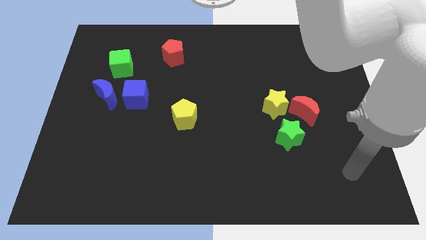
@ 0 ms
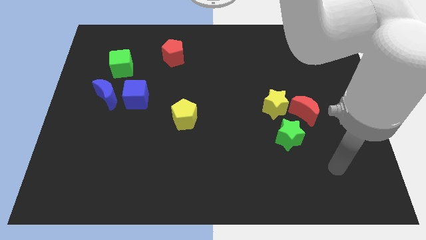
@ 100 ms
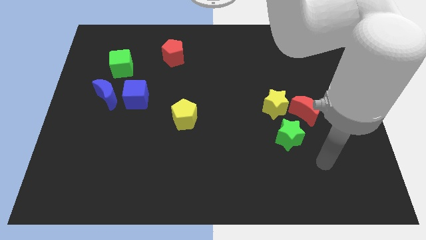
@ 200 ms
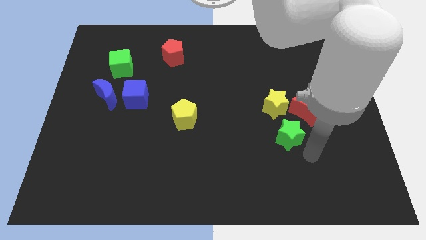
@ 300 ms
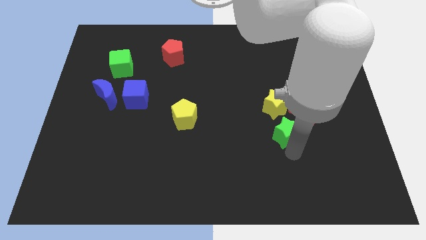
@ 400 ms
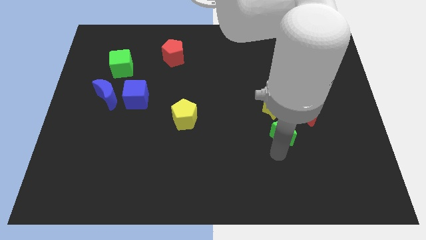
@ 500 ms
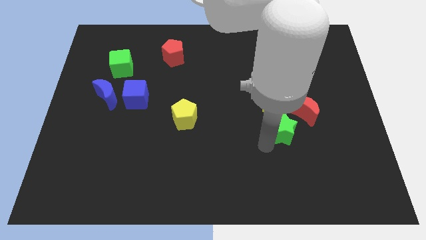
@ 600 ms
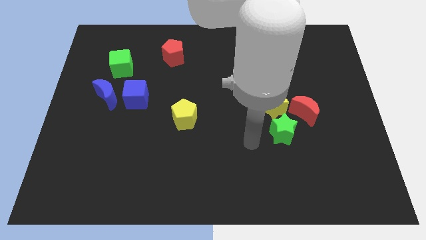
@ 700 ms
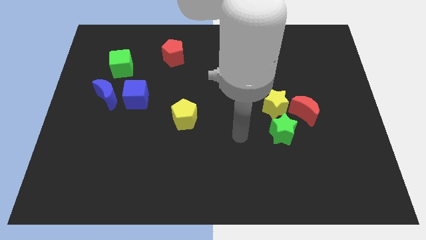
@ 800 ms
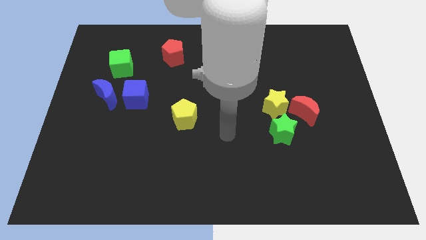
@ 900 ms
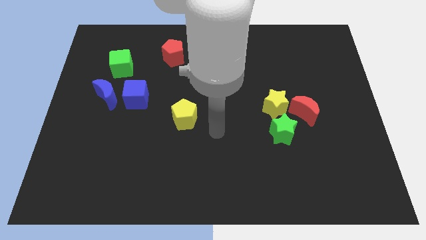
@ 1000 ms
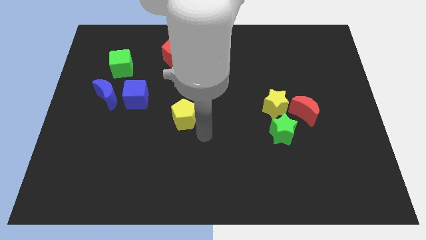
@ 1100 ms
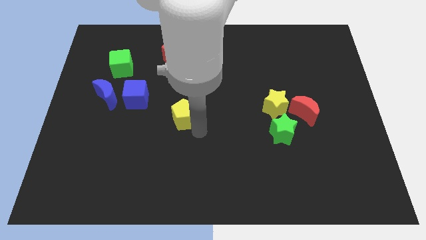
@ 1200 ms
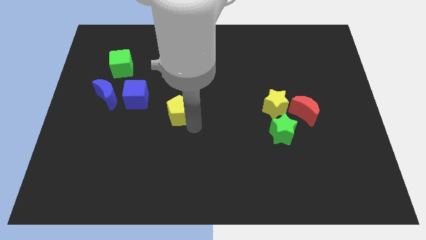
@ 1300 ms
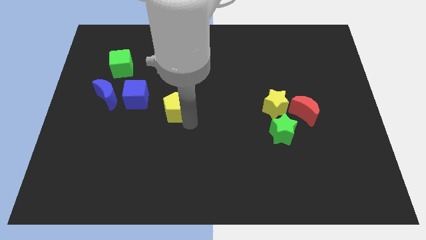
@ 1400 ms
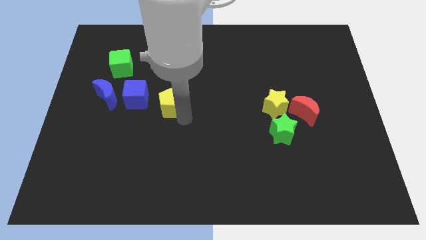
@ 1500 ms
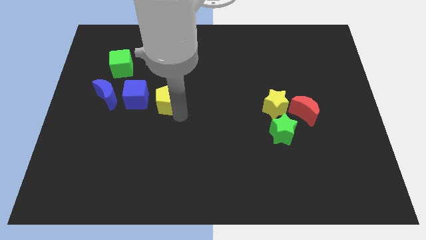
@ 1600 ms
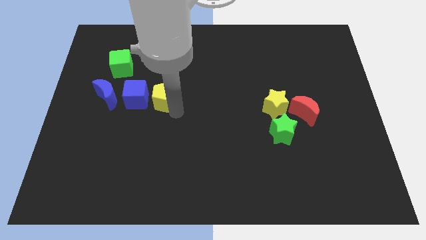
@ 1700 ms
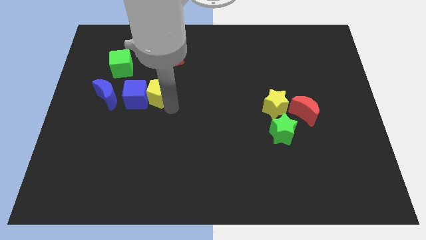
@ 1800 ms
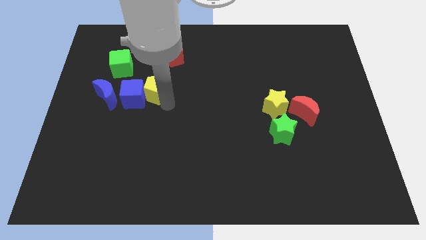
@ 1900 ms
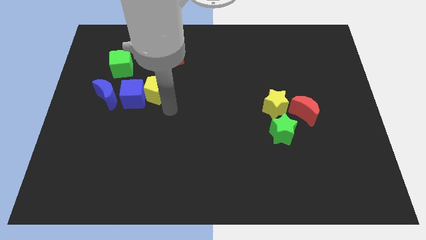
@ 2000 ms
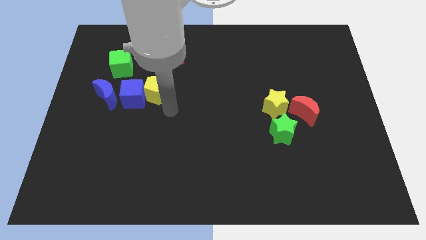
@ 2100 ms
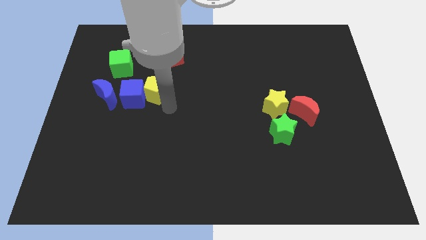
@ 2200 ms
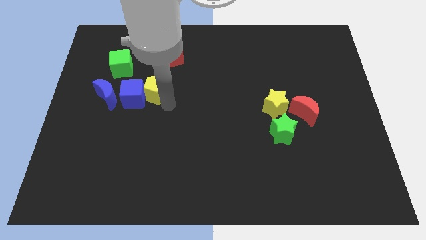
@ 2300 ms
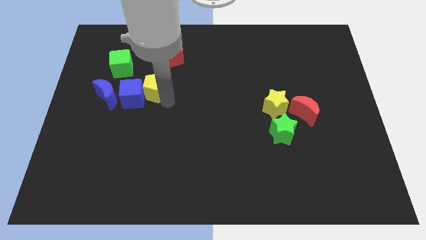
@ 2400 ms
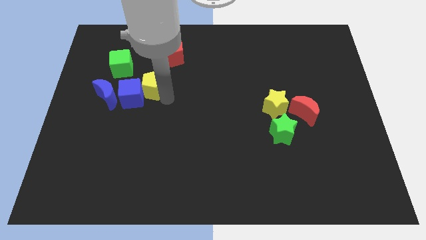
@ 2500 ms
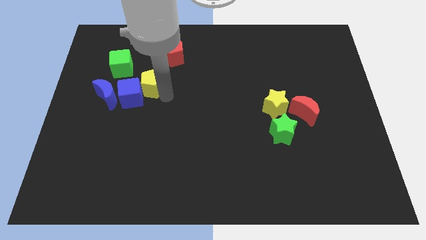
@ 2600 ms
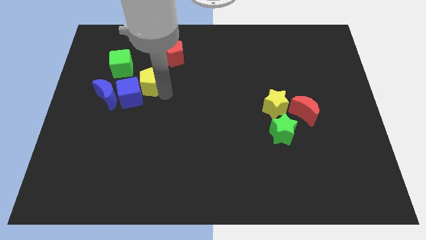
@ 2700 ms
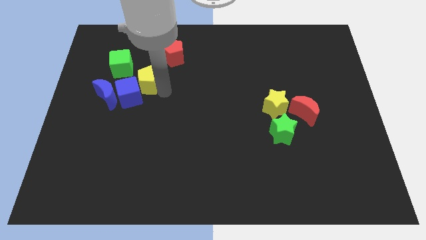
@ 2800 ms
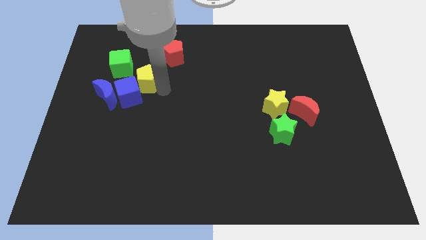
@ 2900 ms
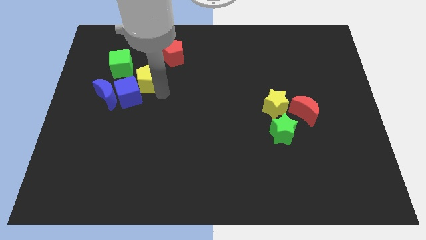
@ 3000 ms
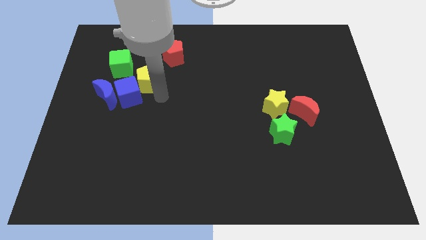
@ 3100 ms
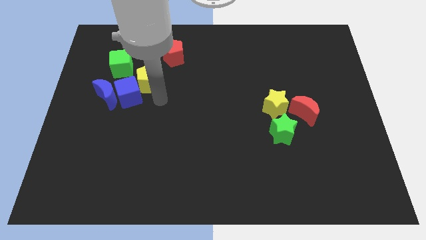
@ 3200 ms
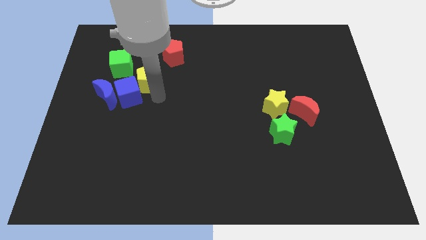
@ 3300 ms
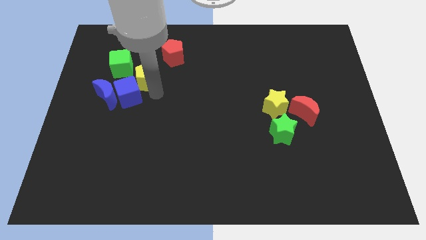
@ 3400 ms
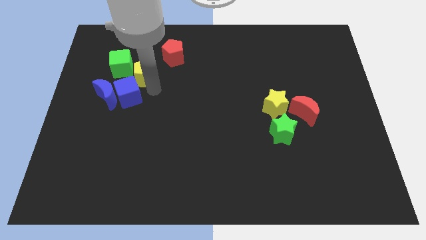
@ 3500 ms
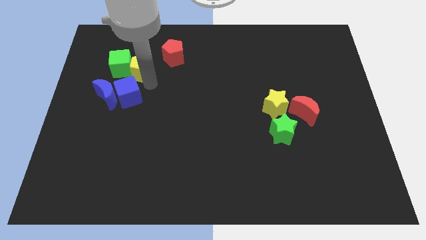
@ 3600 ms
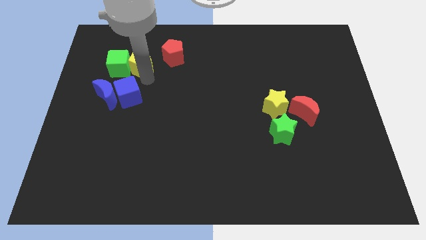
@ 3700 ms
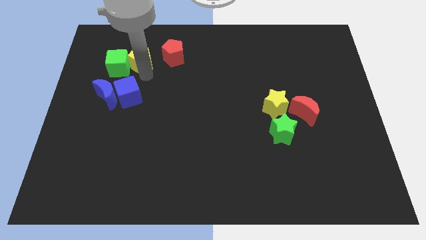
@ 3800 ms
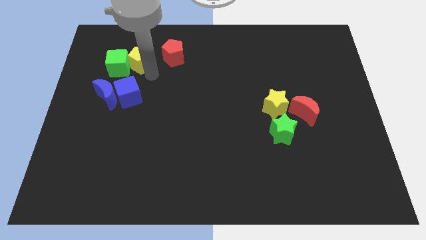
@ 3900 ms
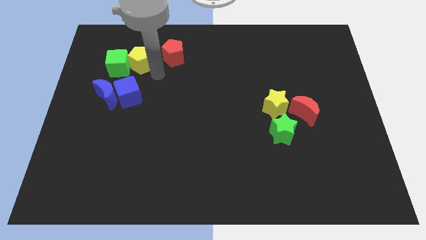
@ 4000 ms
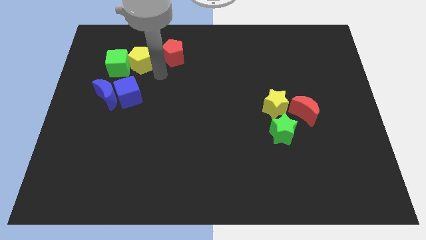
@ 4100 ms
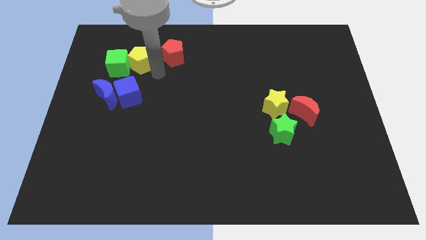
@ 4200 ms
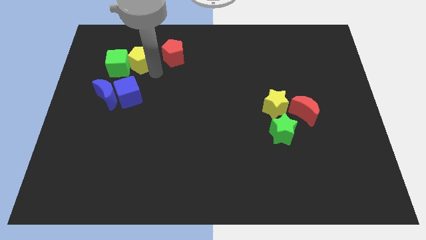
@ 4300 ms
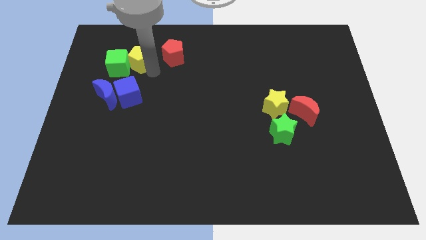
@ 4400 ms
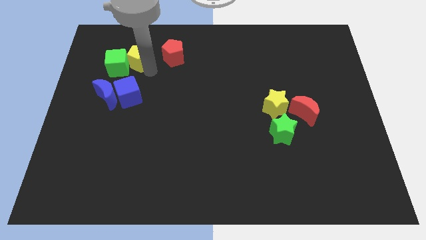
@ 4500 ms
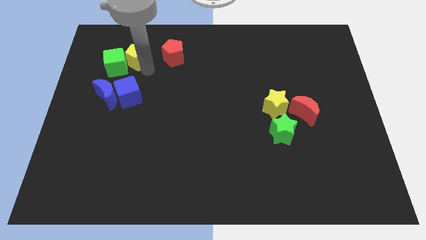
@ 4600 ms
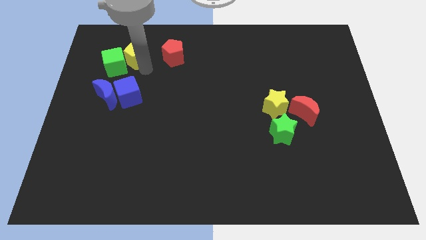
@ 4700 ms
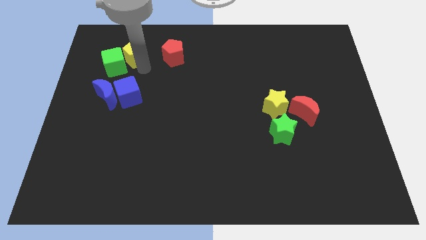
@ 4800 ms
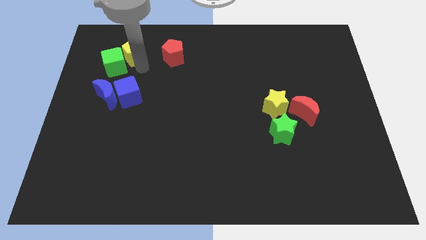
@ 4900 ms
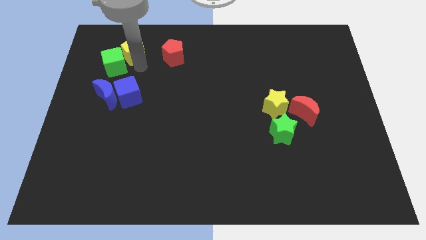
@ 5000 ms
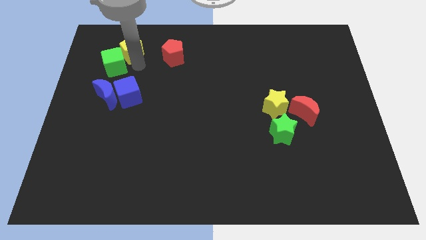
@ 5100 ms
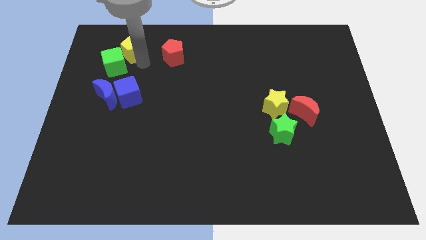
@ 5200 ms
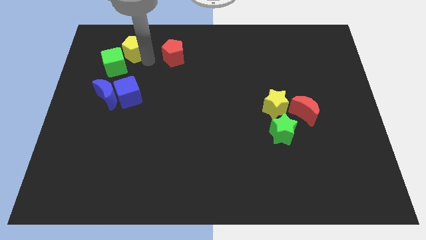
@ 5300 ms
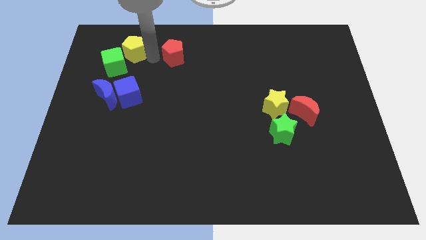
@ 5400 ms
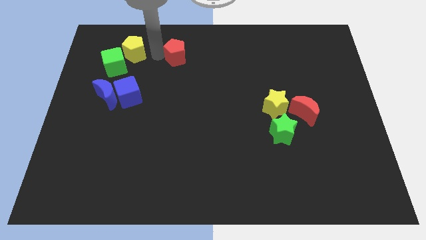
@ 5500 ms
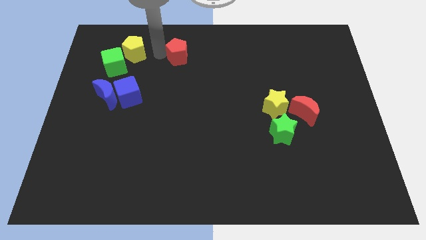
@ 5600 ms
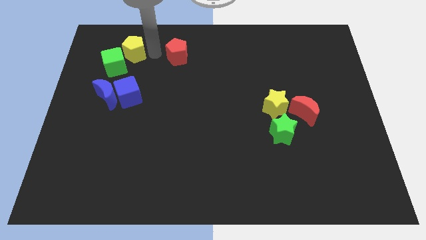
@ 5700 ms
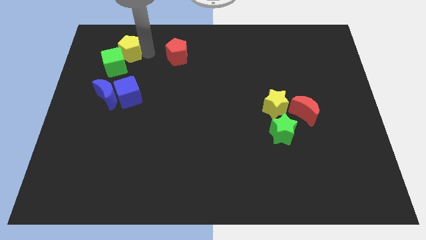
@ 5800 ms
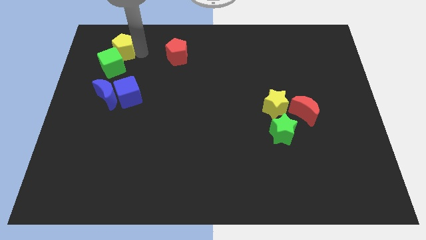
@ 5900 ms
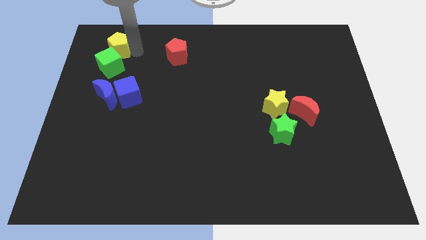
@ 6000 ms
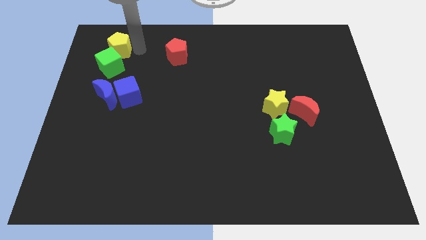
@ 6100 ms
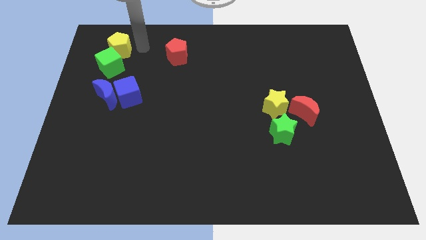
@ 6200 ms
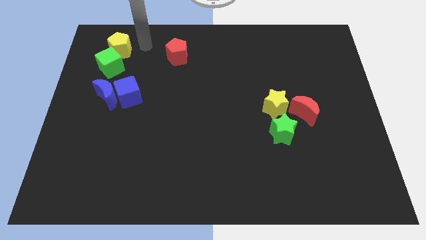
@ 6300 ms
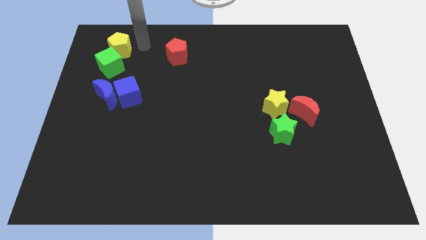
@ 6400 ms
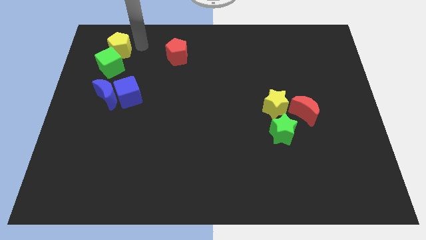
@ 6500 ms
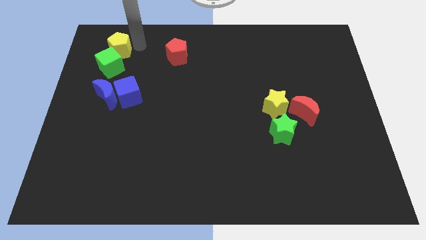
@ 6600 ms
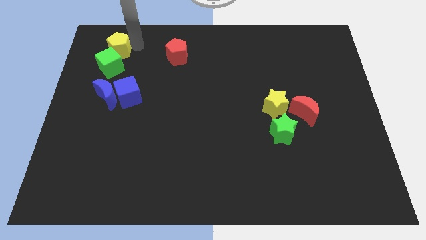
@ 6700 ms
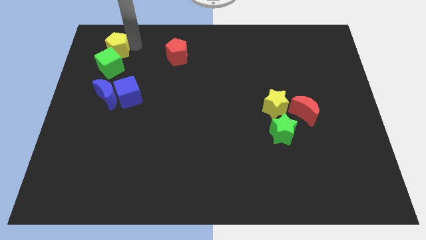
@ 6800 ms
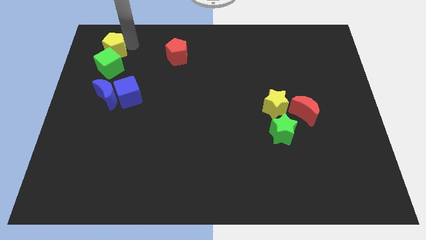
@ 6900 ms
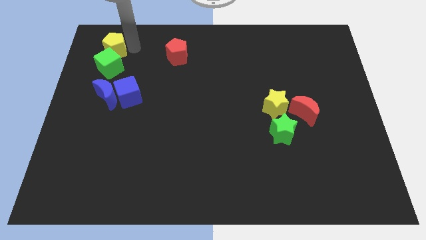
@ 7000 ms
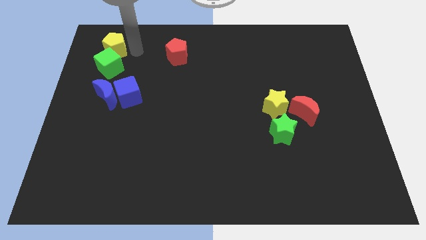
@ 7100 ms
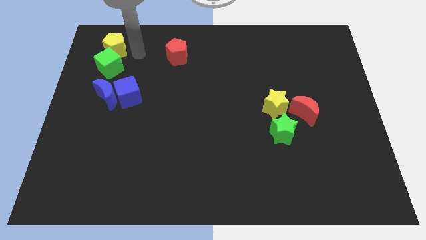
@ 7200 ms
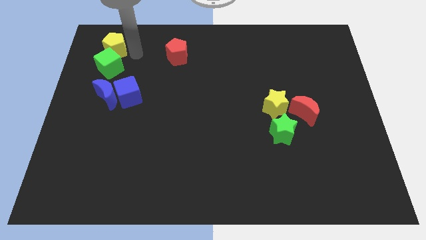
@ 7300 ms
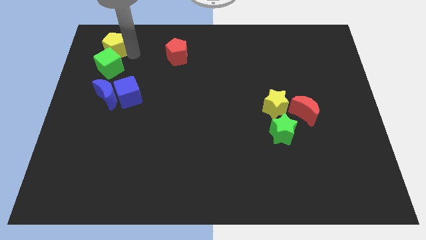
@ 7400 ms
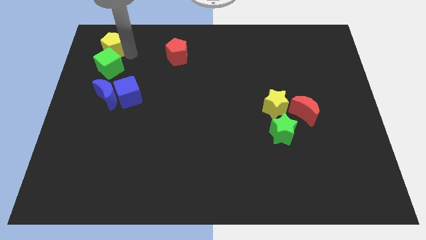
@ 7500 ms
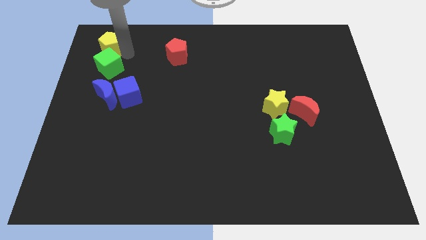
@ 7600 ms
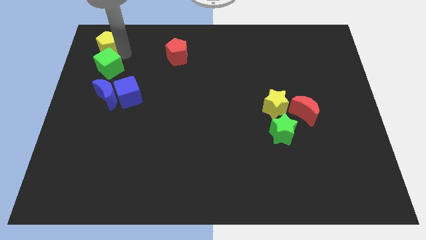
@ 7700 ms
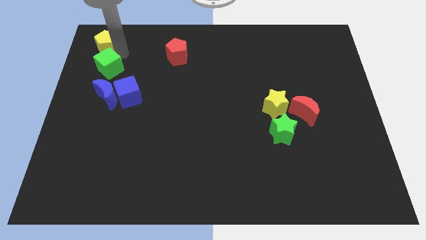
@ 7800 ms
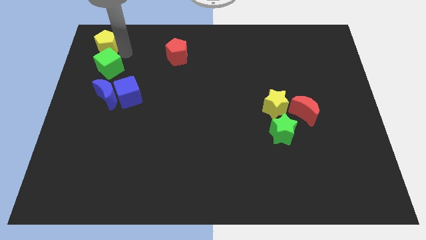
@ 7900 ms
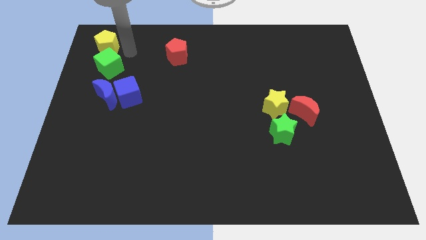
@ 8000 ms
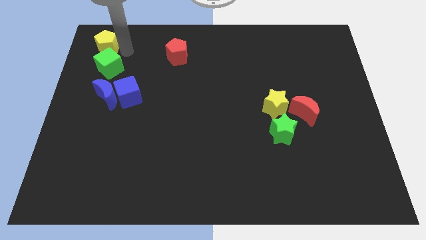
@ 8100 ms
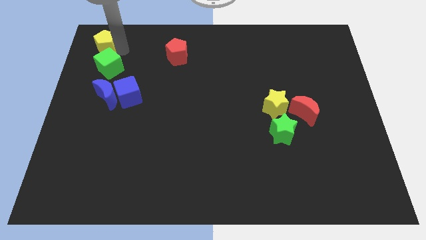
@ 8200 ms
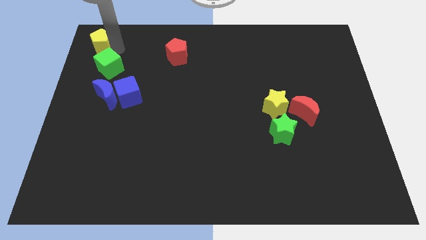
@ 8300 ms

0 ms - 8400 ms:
move the yellow pentagon to the top left
